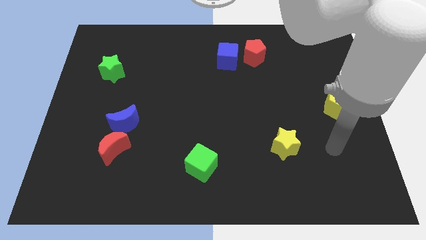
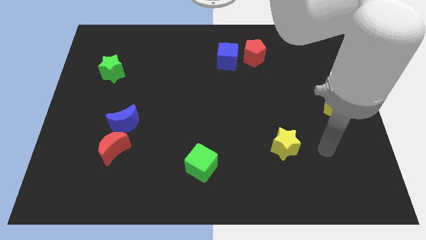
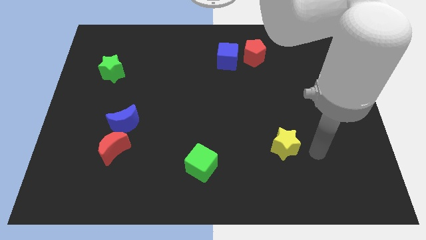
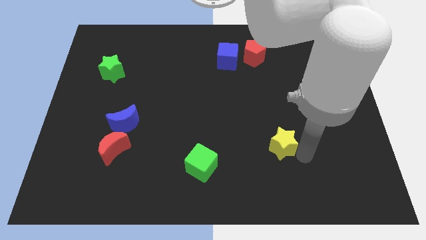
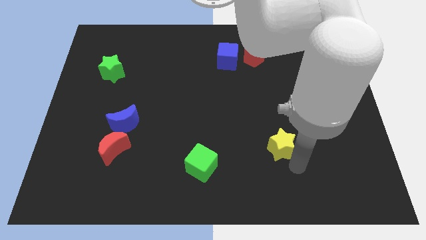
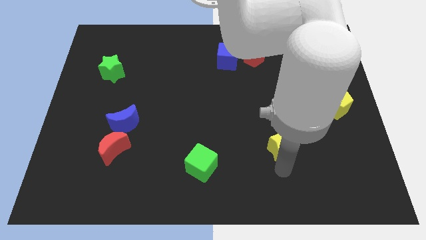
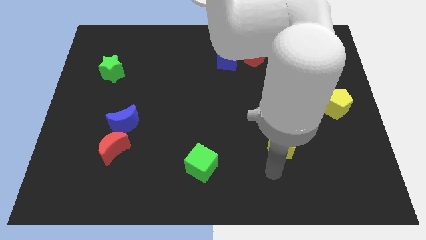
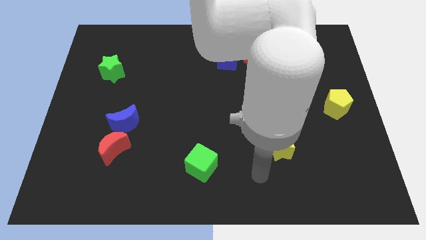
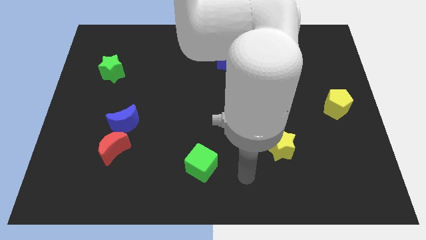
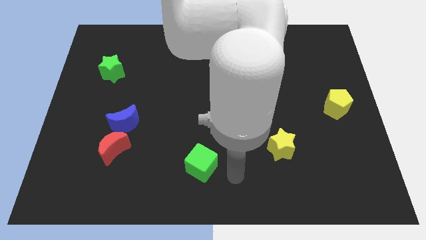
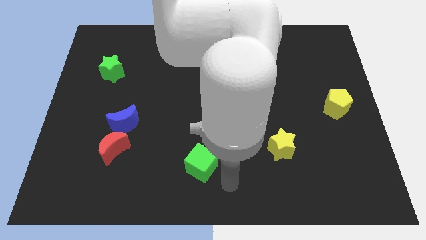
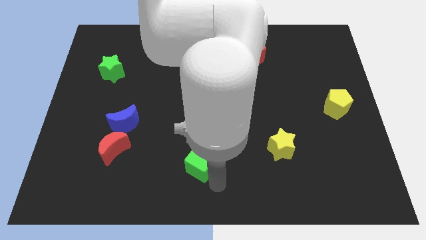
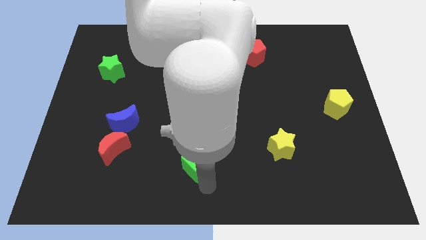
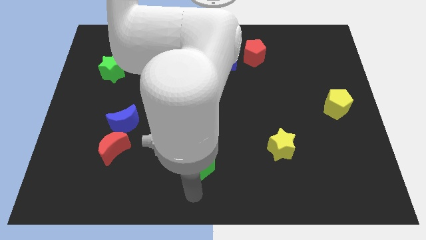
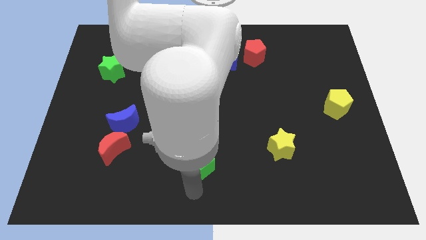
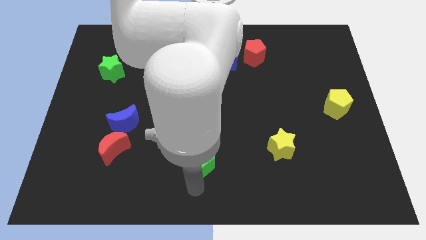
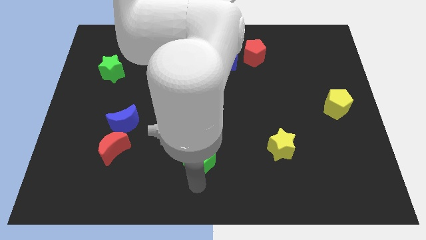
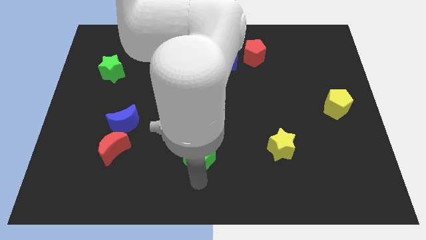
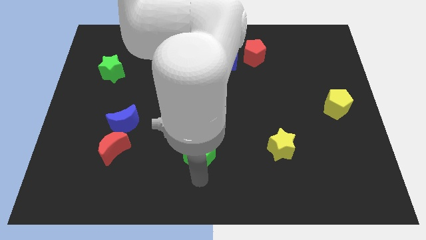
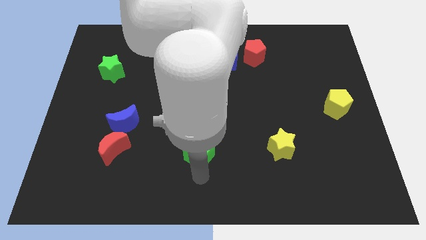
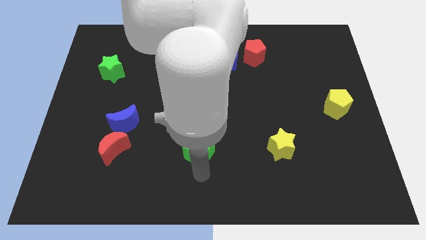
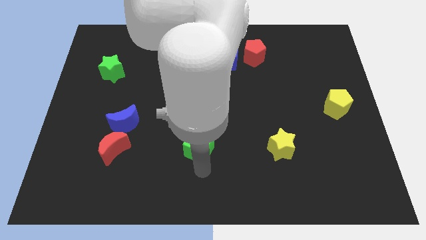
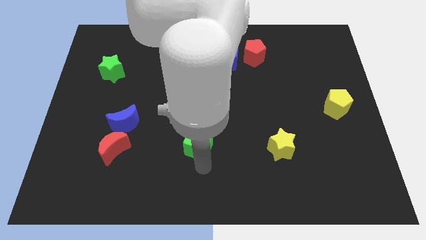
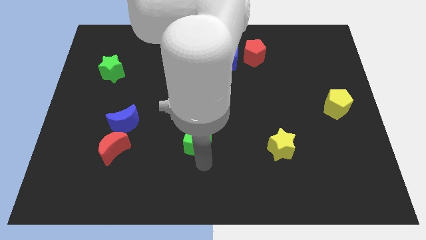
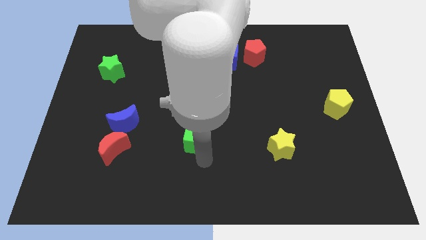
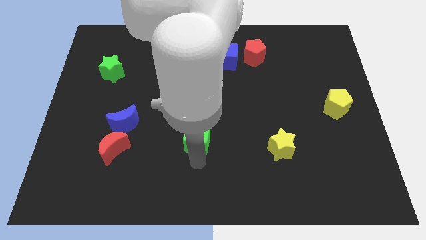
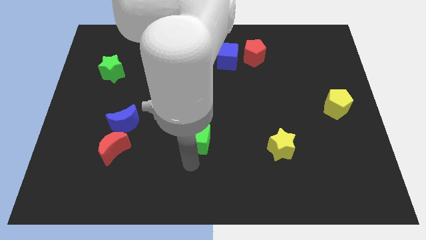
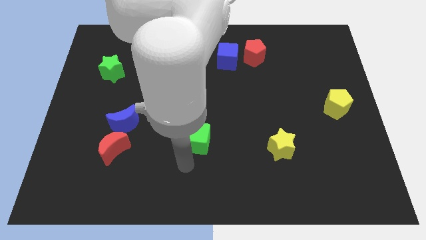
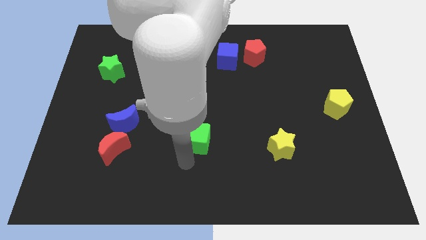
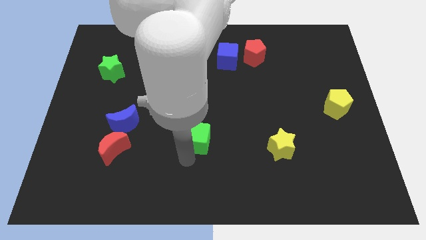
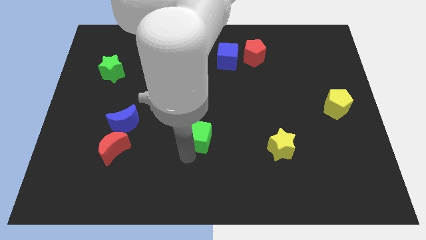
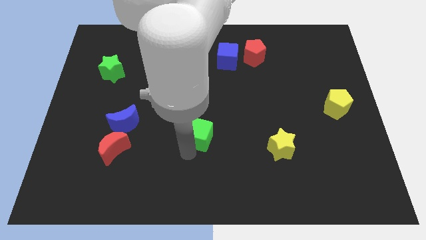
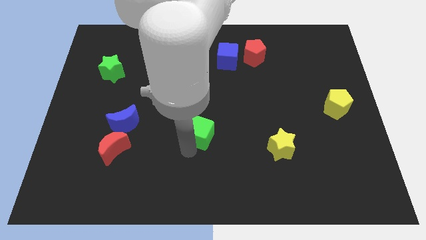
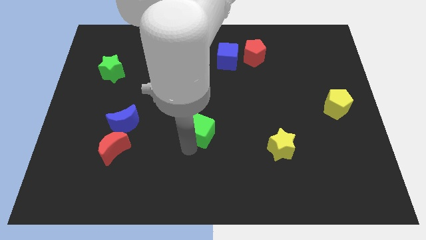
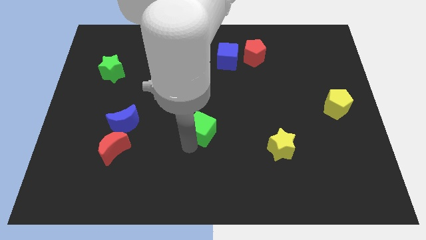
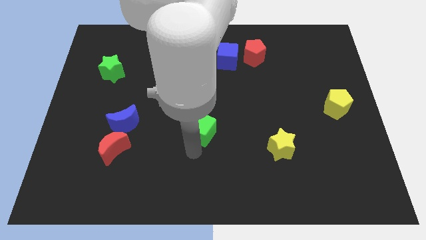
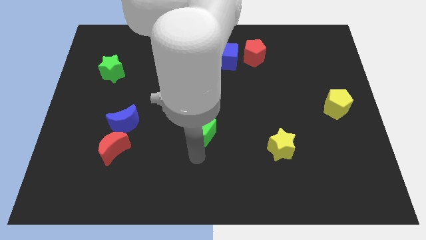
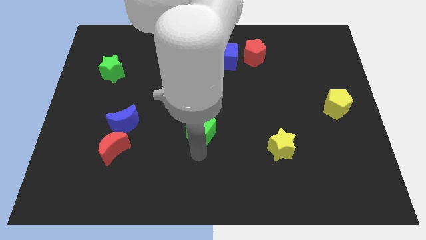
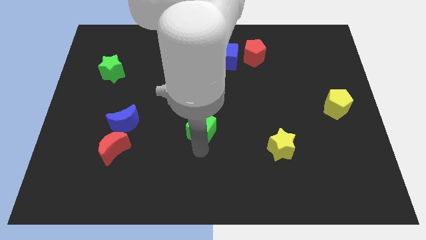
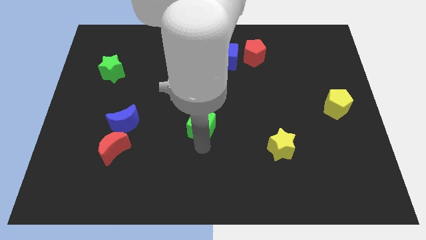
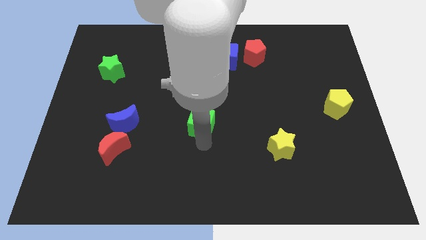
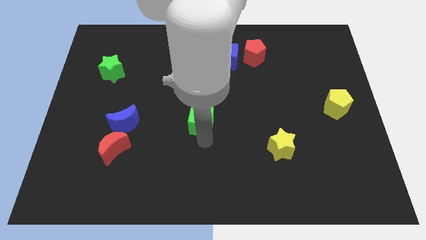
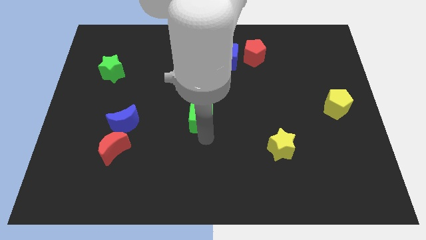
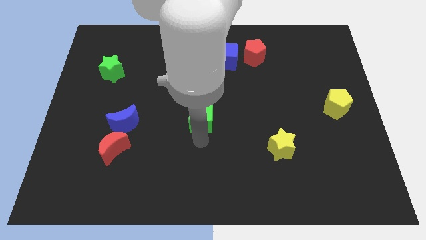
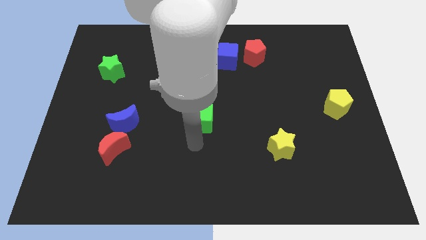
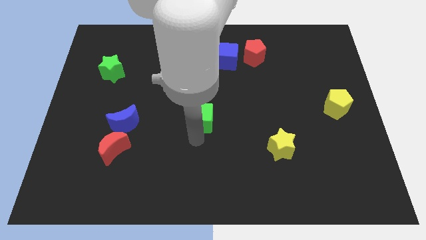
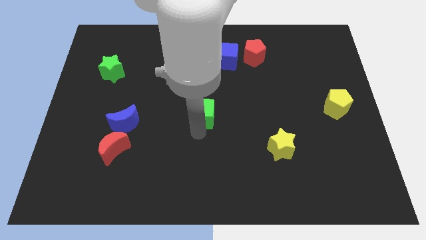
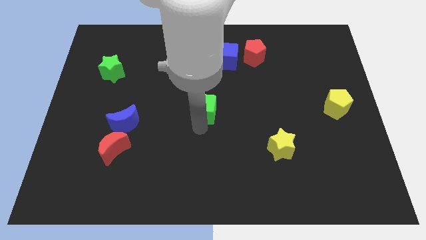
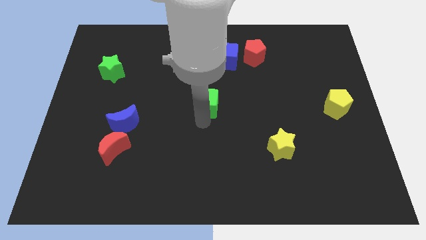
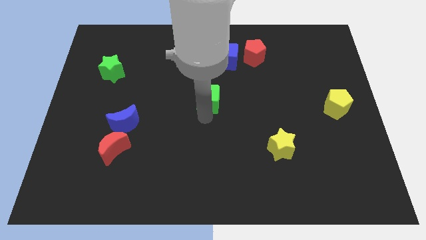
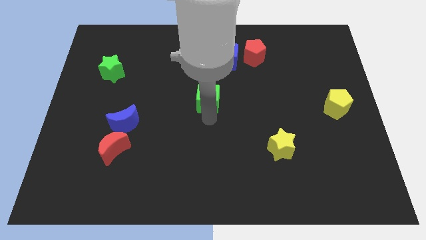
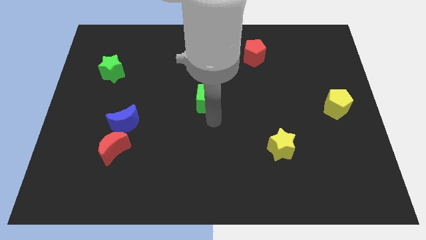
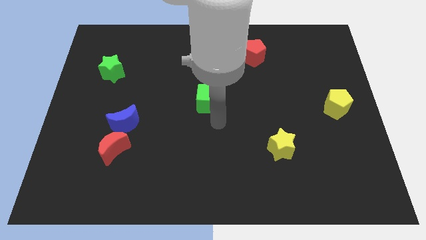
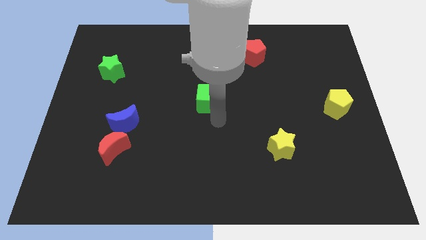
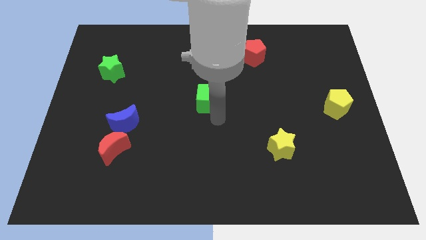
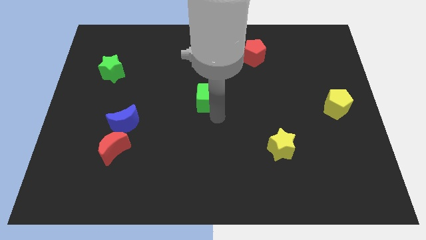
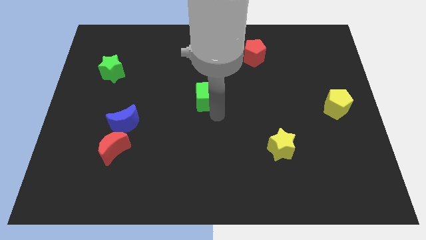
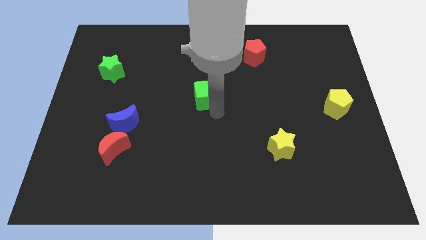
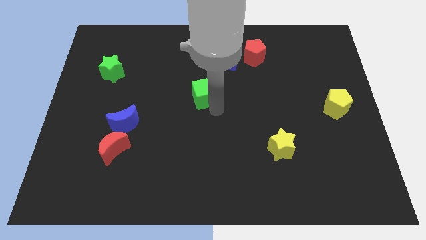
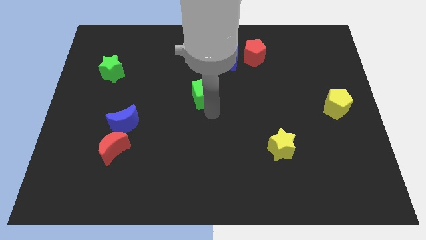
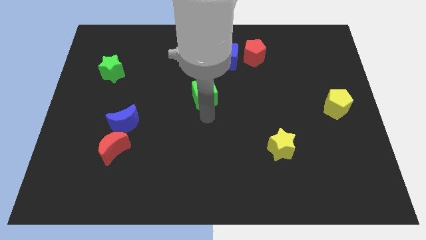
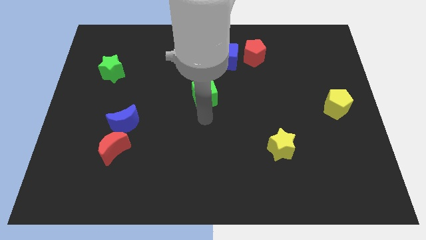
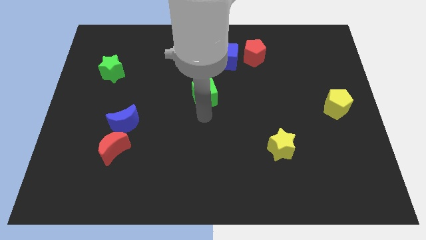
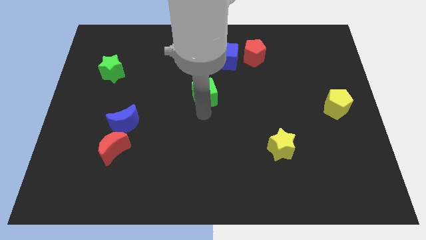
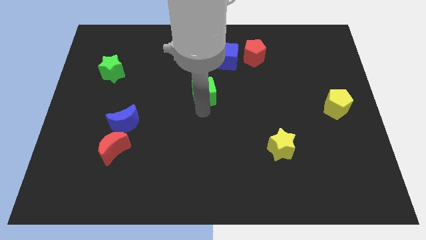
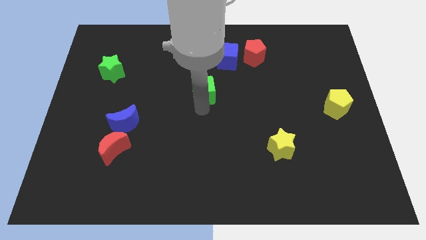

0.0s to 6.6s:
push the green cube upwards

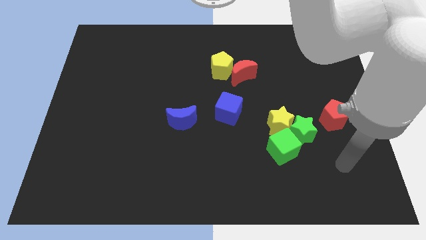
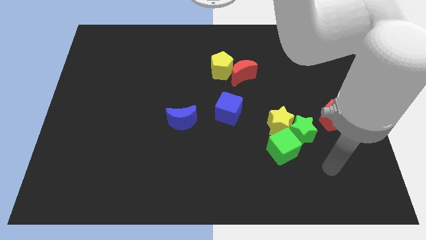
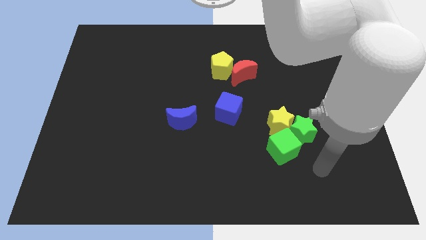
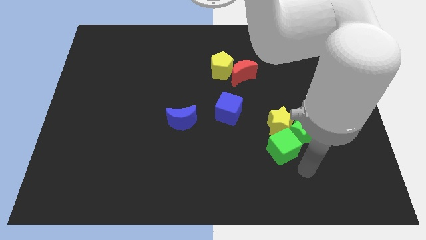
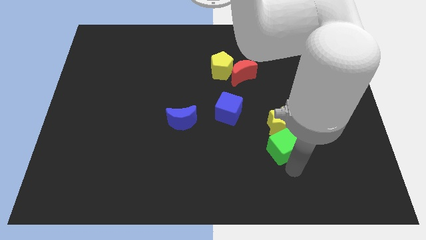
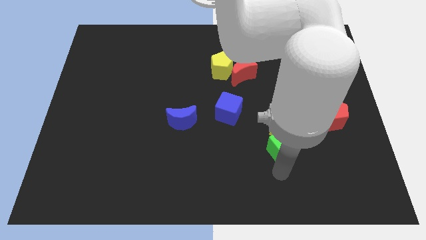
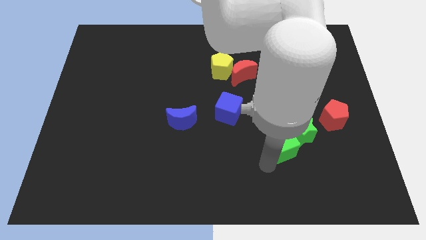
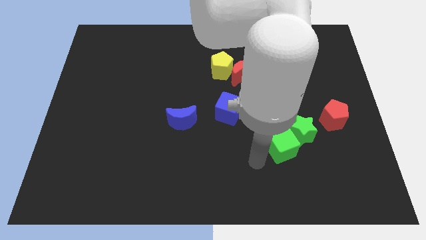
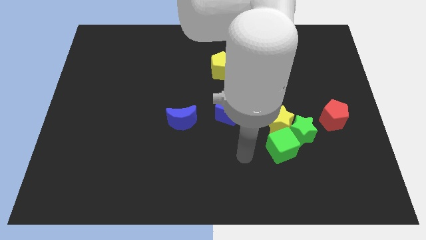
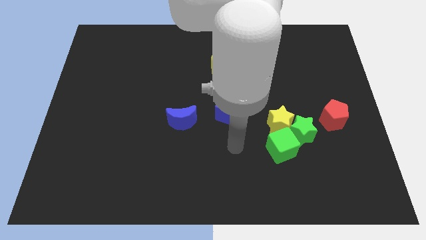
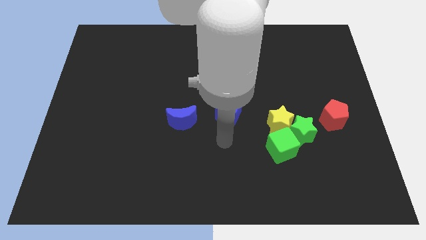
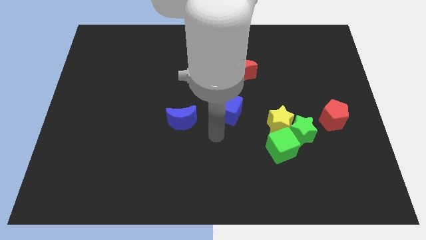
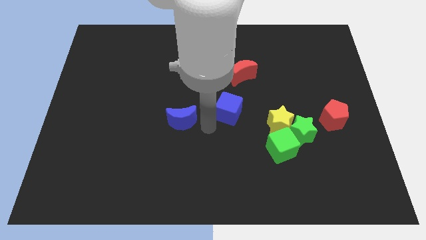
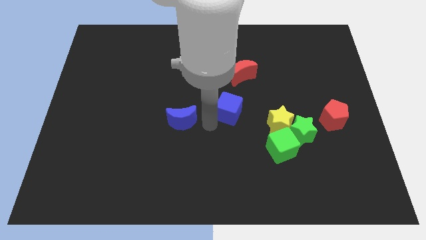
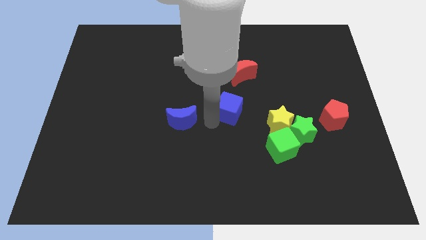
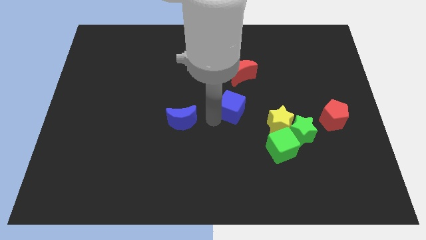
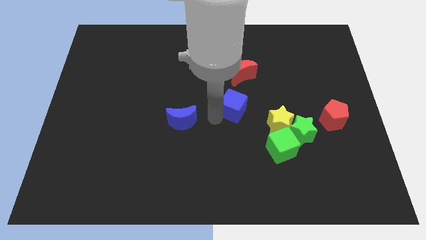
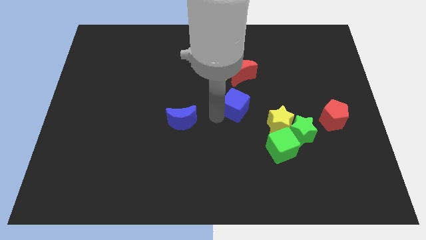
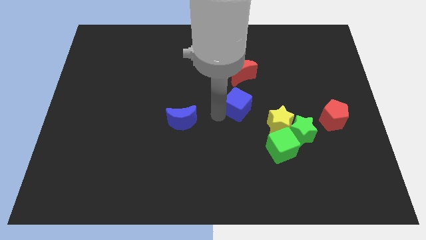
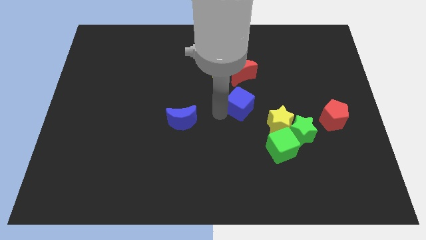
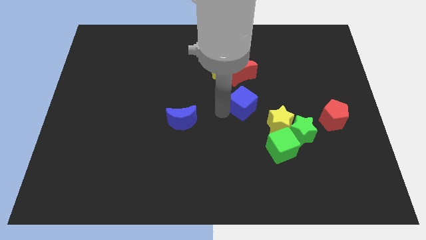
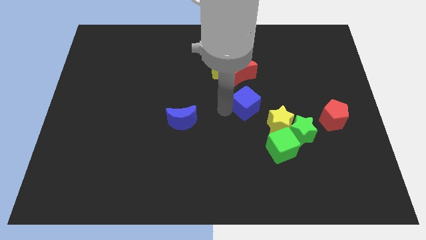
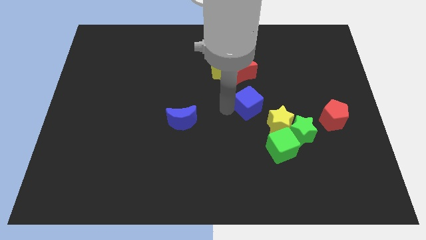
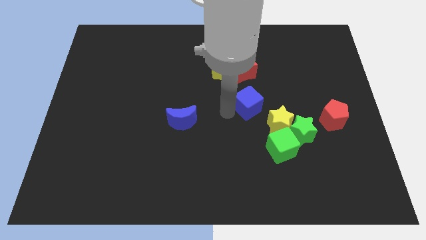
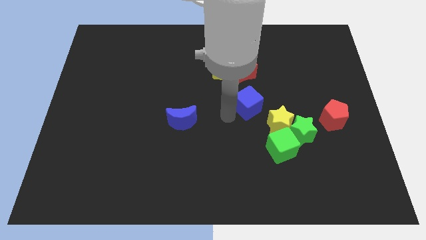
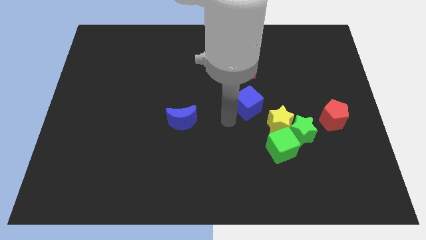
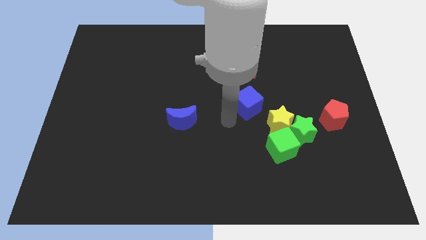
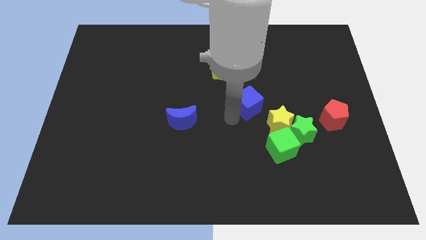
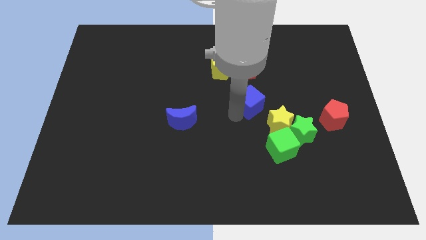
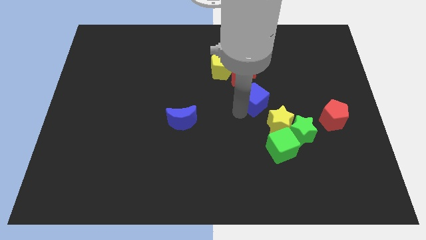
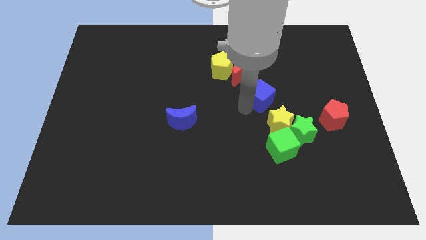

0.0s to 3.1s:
slightly move the blue cube up and to the right diagonally
